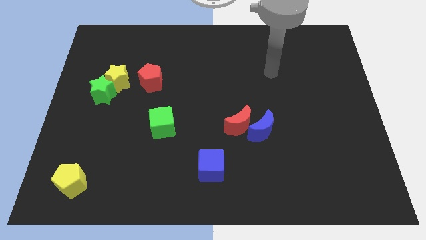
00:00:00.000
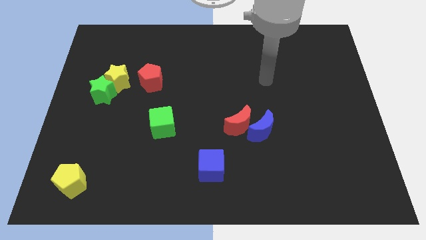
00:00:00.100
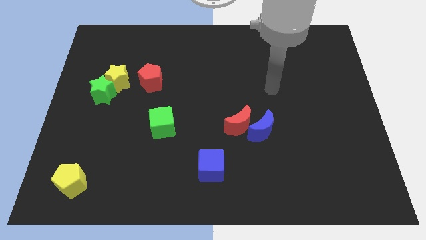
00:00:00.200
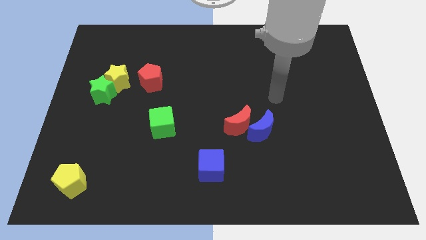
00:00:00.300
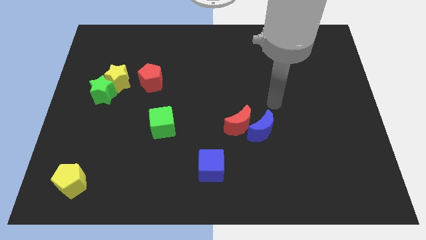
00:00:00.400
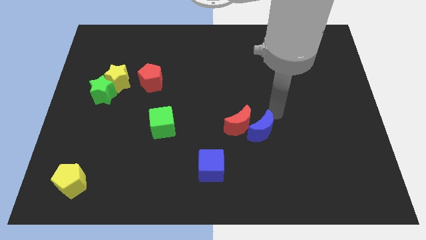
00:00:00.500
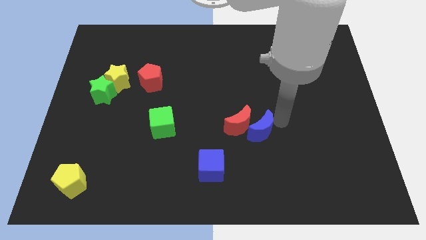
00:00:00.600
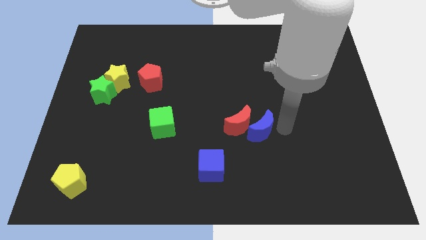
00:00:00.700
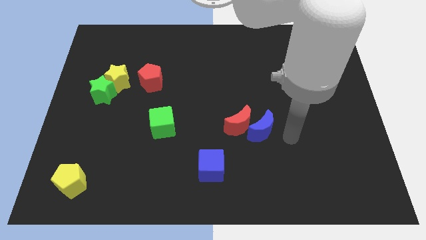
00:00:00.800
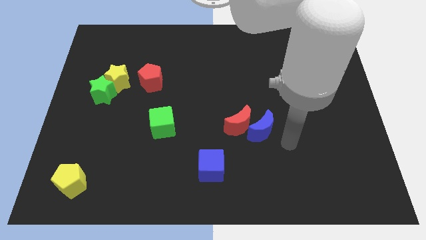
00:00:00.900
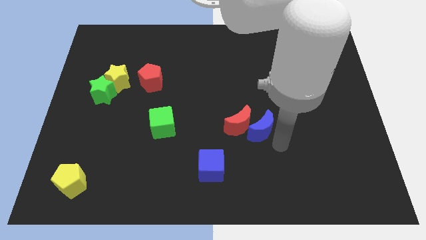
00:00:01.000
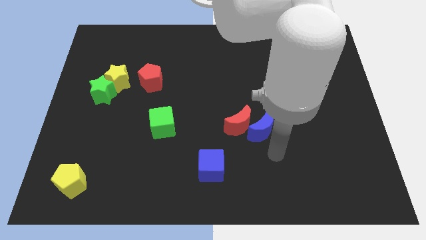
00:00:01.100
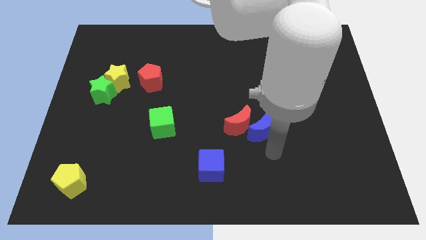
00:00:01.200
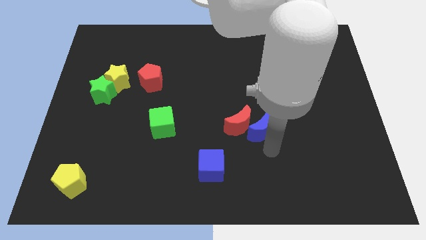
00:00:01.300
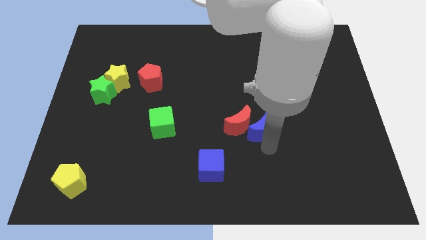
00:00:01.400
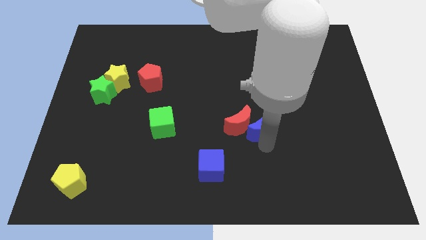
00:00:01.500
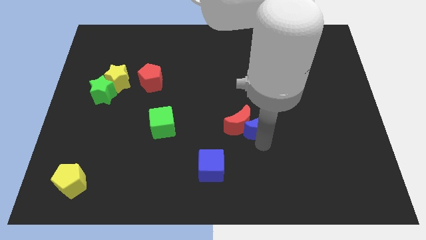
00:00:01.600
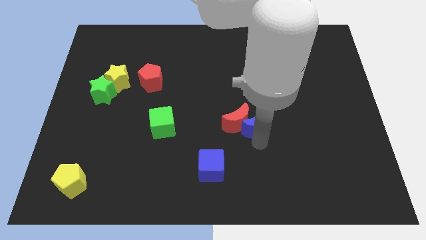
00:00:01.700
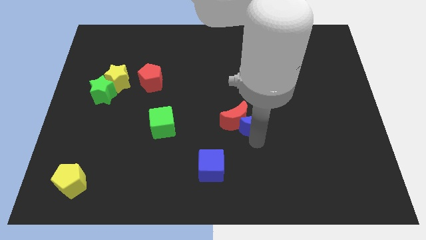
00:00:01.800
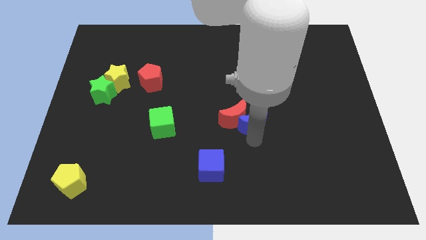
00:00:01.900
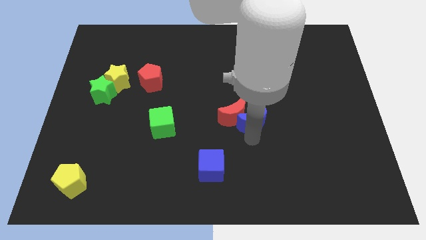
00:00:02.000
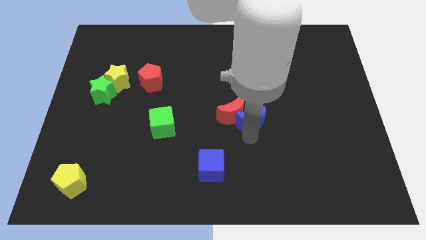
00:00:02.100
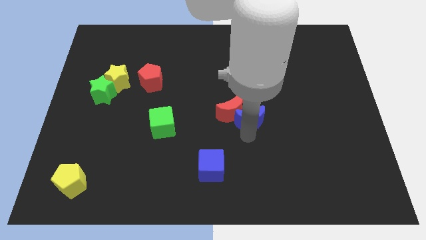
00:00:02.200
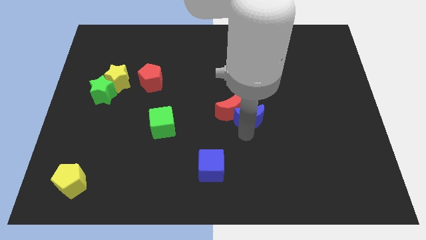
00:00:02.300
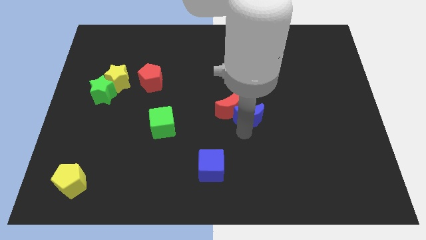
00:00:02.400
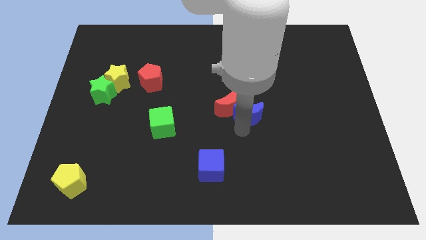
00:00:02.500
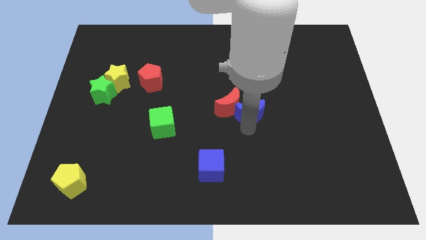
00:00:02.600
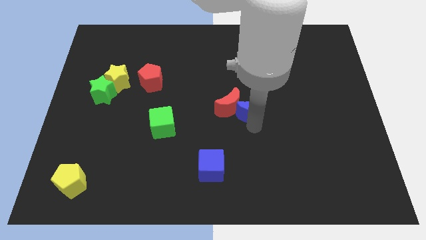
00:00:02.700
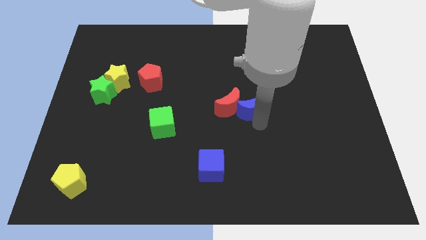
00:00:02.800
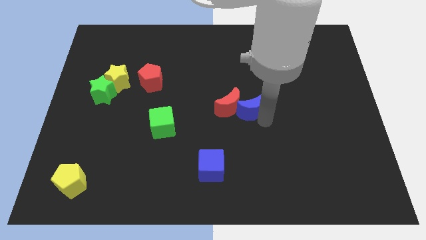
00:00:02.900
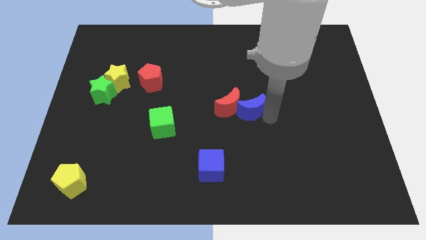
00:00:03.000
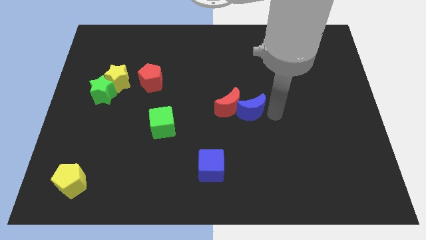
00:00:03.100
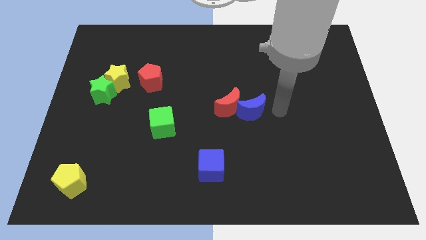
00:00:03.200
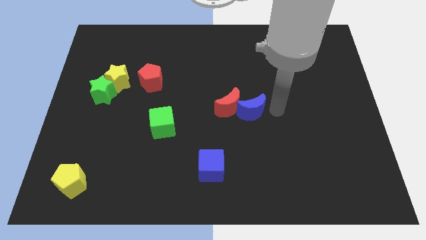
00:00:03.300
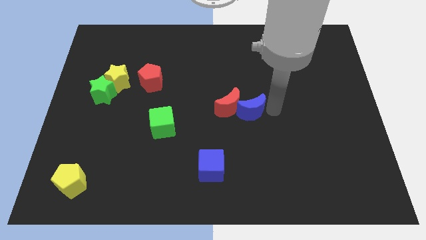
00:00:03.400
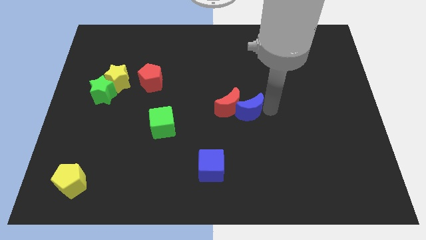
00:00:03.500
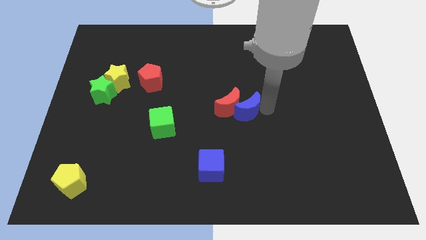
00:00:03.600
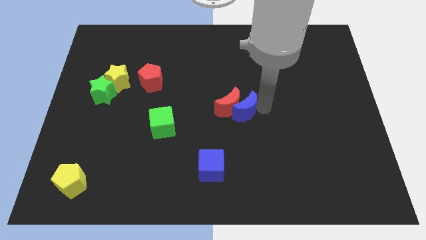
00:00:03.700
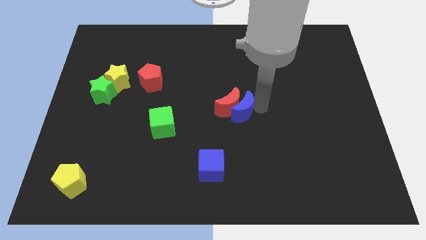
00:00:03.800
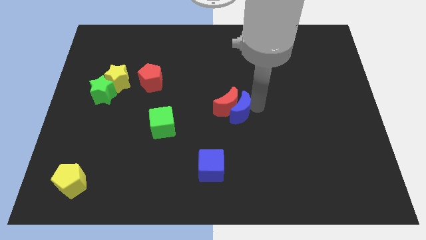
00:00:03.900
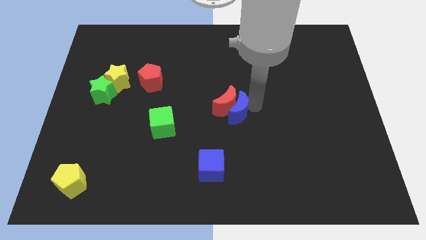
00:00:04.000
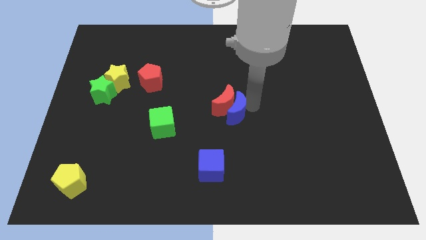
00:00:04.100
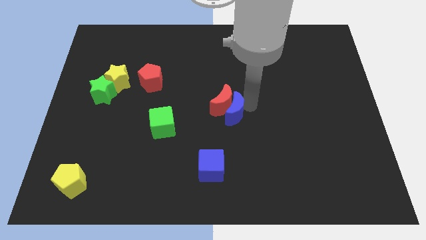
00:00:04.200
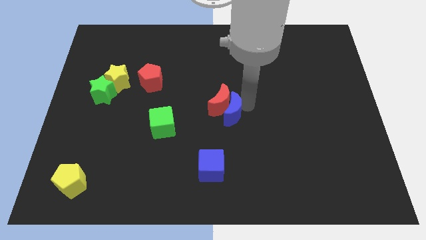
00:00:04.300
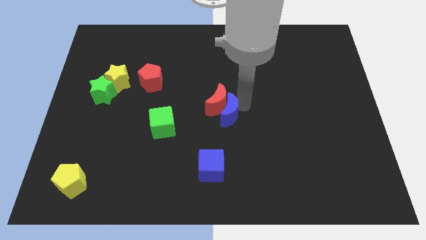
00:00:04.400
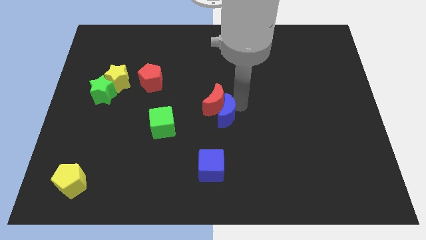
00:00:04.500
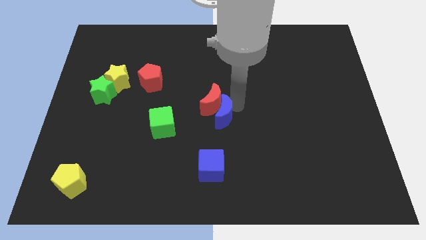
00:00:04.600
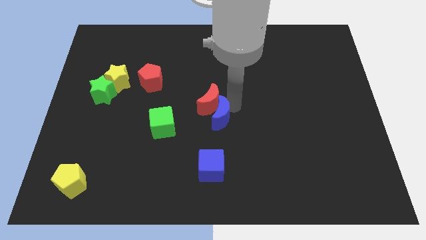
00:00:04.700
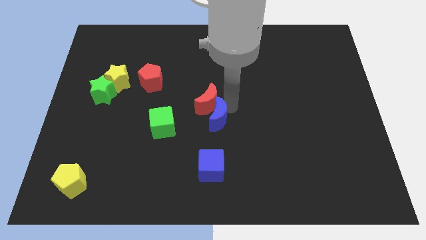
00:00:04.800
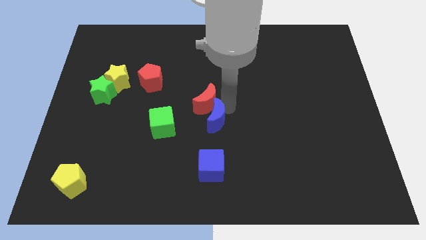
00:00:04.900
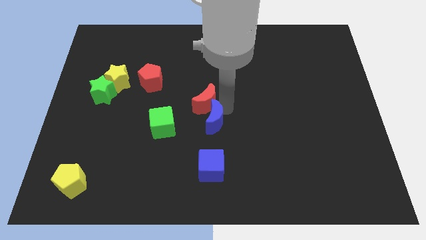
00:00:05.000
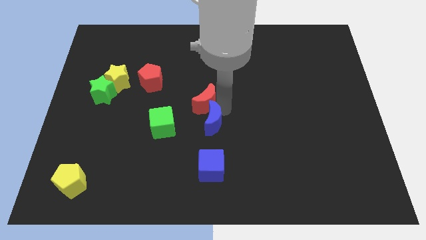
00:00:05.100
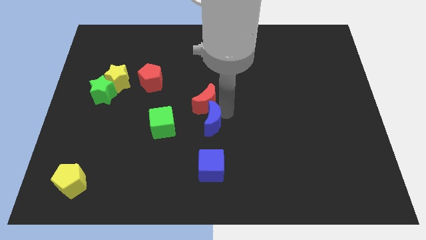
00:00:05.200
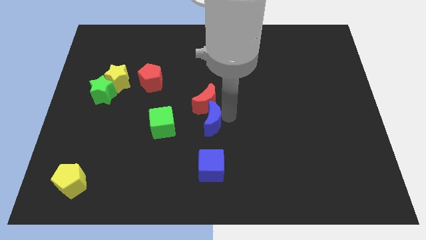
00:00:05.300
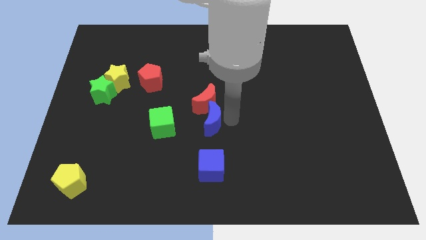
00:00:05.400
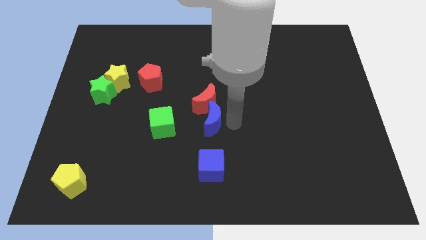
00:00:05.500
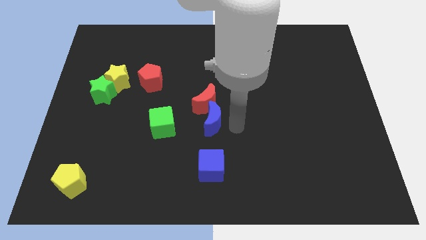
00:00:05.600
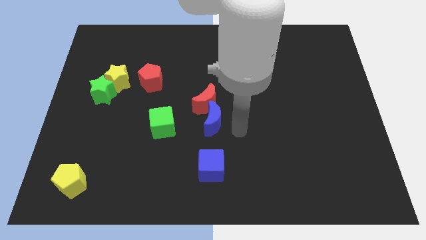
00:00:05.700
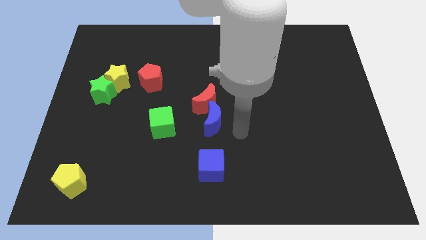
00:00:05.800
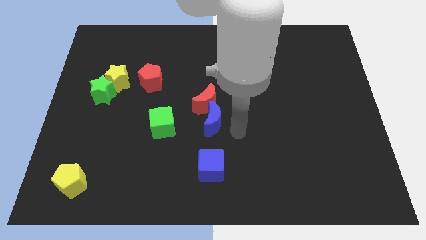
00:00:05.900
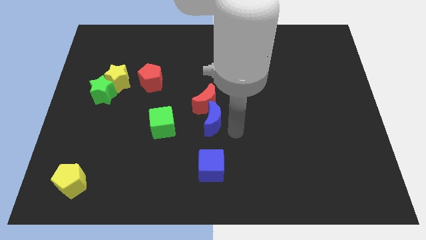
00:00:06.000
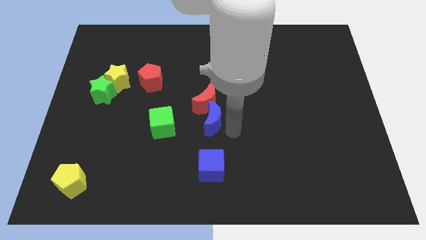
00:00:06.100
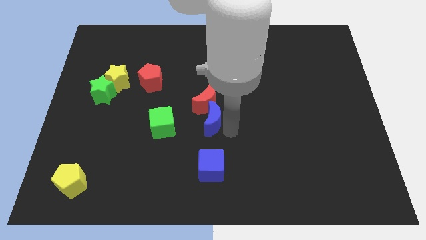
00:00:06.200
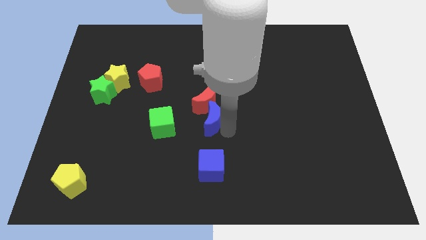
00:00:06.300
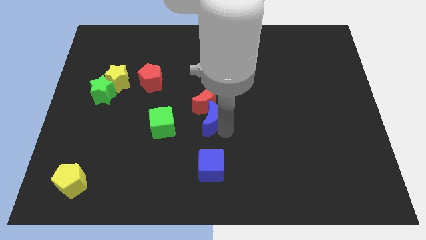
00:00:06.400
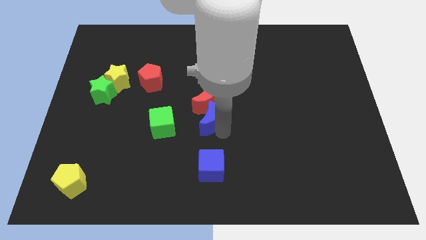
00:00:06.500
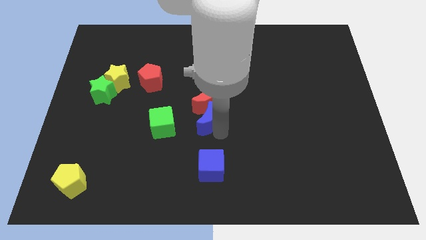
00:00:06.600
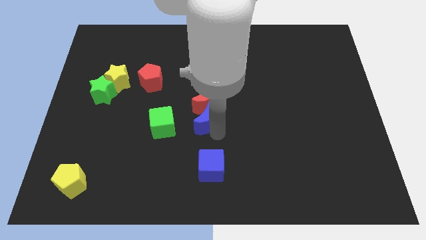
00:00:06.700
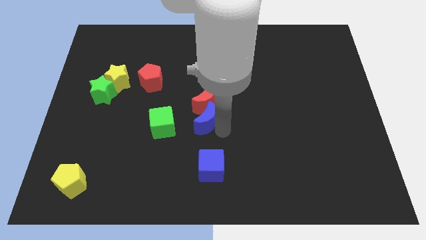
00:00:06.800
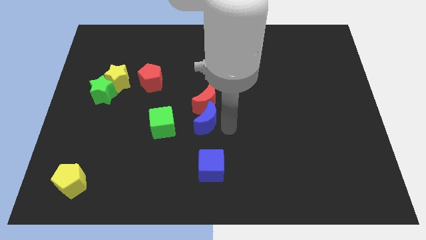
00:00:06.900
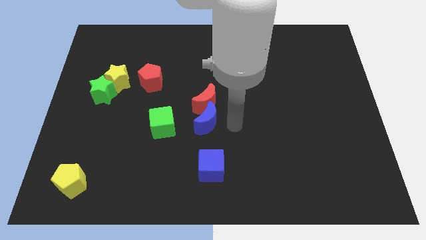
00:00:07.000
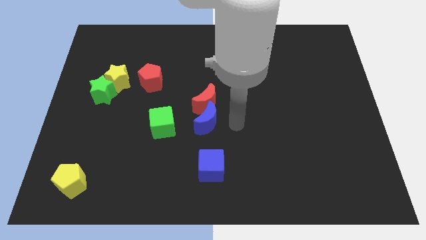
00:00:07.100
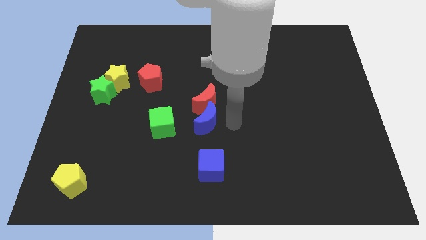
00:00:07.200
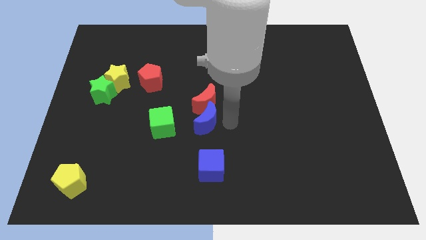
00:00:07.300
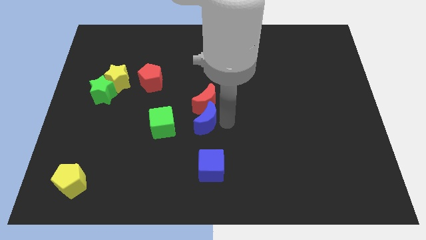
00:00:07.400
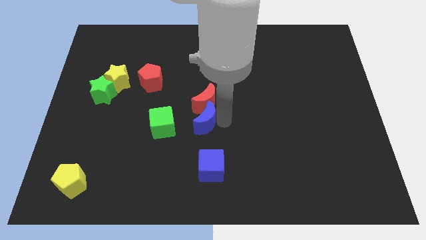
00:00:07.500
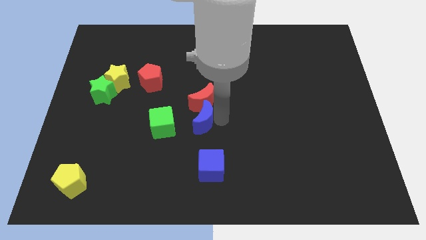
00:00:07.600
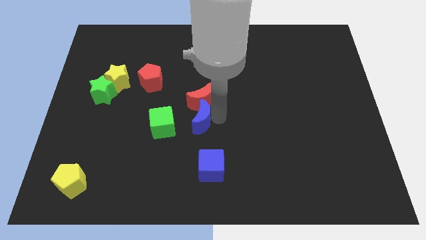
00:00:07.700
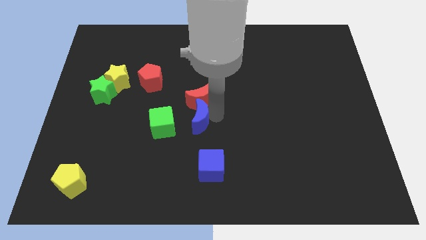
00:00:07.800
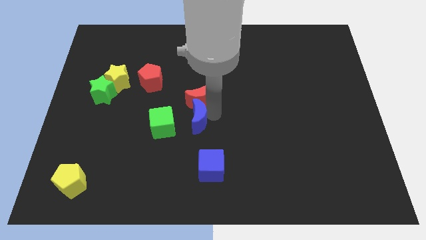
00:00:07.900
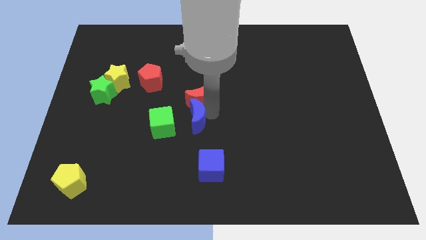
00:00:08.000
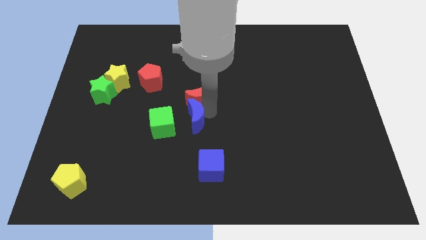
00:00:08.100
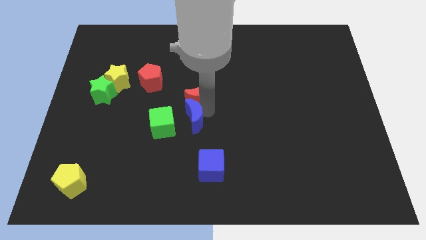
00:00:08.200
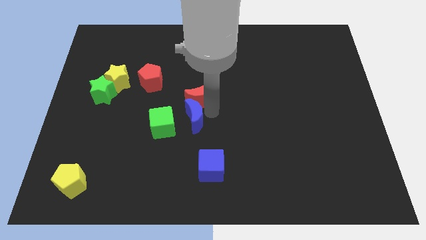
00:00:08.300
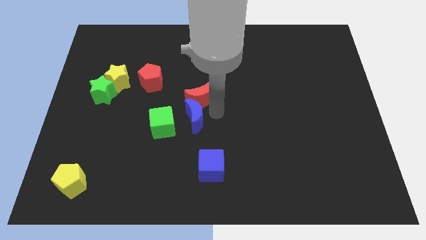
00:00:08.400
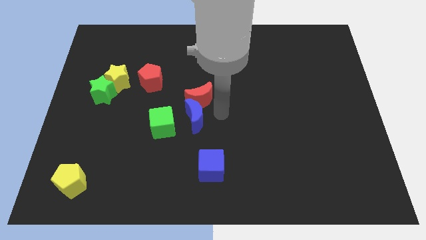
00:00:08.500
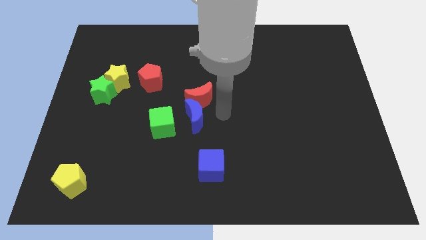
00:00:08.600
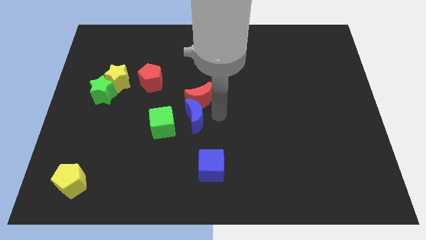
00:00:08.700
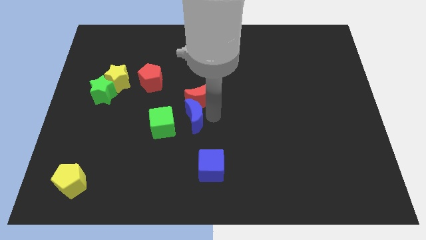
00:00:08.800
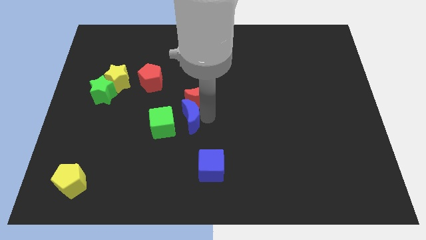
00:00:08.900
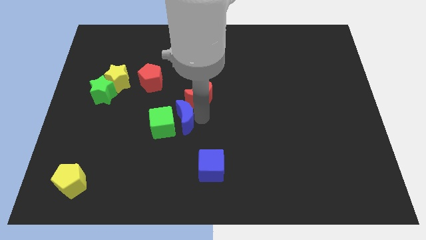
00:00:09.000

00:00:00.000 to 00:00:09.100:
slide the blue moon close to the green cube
